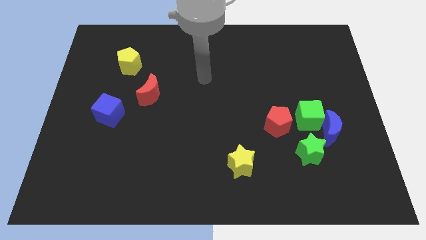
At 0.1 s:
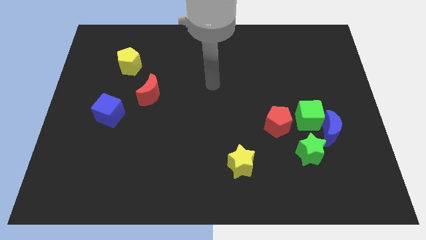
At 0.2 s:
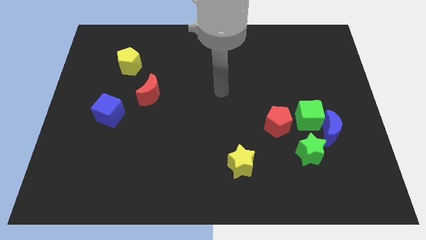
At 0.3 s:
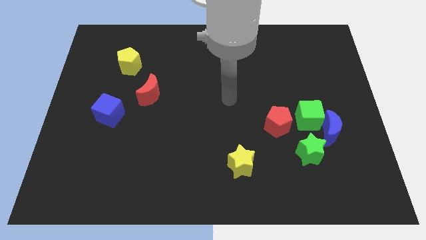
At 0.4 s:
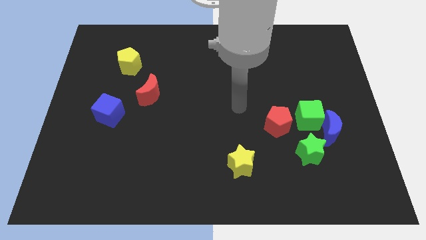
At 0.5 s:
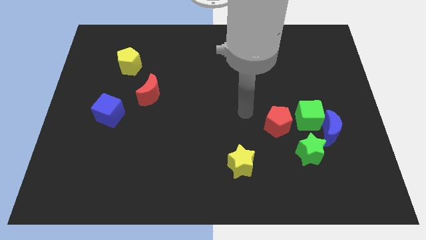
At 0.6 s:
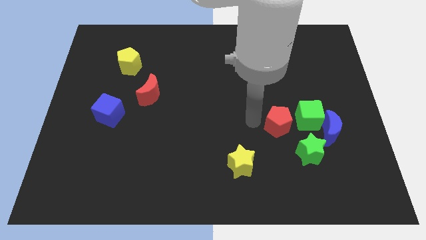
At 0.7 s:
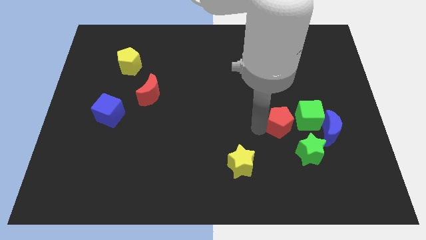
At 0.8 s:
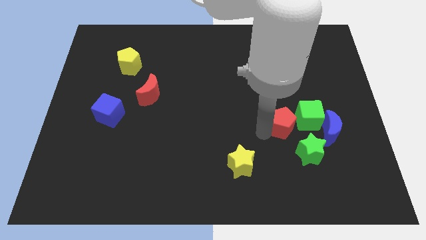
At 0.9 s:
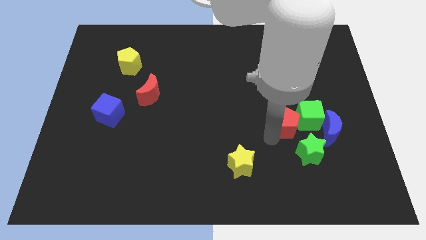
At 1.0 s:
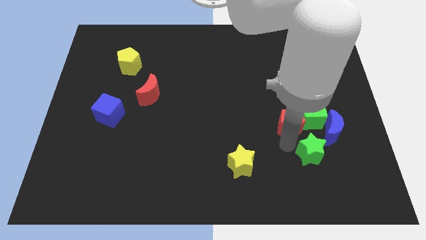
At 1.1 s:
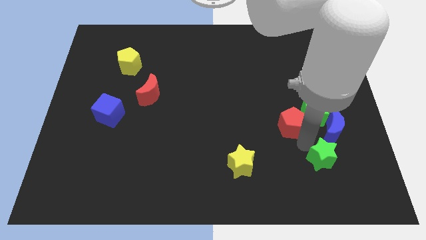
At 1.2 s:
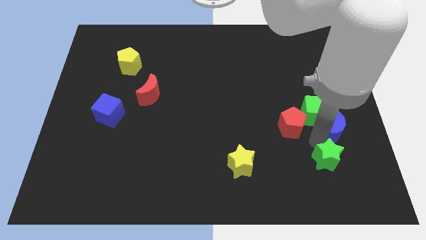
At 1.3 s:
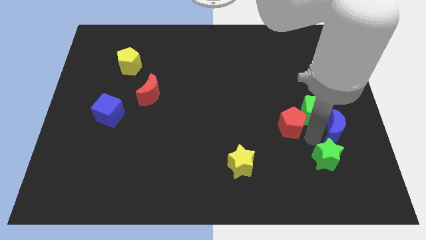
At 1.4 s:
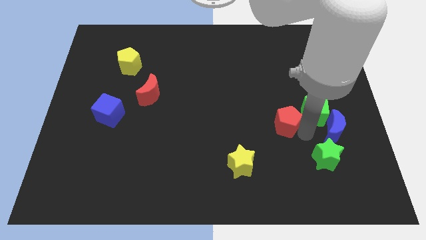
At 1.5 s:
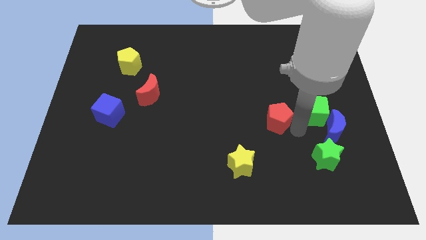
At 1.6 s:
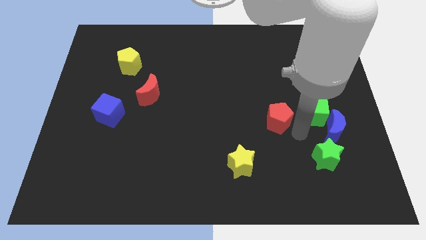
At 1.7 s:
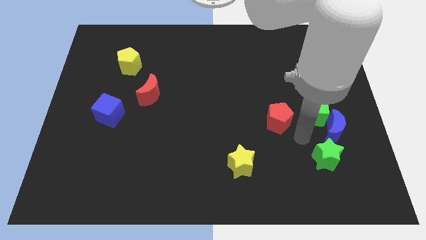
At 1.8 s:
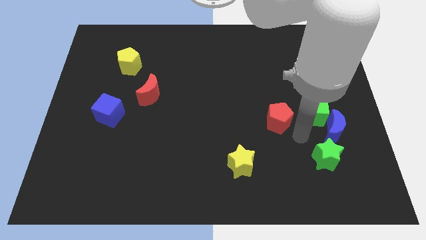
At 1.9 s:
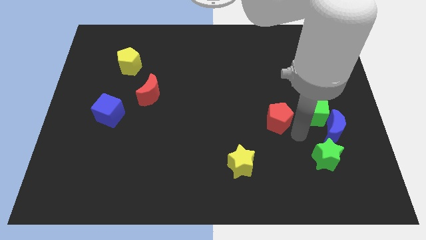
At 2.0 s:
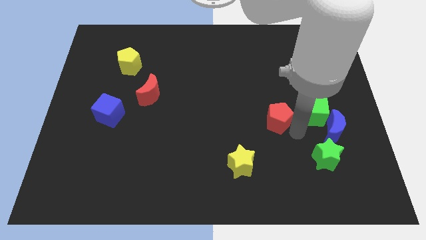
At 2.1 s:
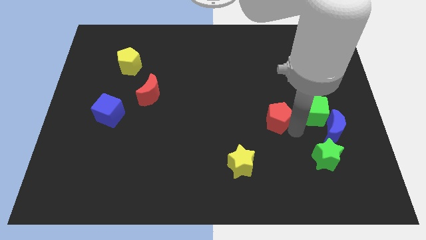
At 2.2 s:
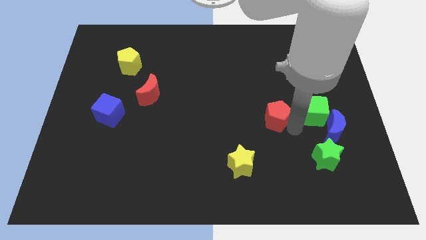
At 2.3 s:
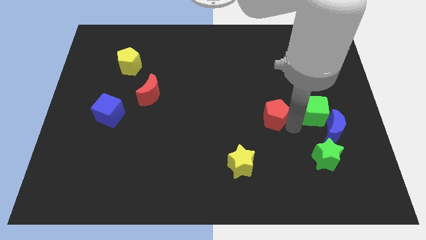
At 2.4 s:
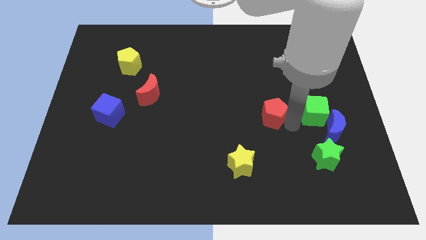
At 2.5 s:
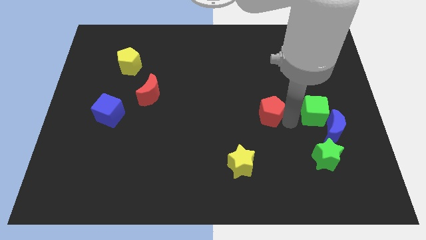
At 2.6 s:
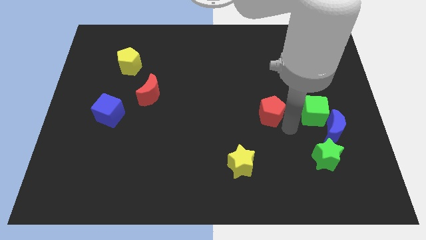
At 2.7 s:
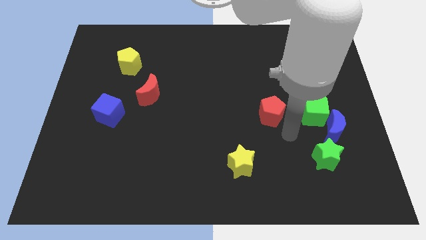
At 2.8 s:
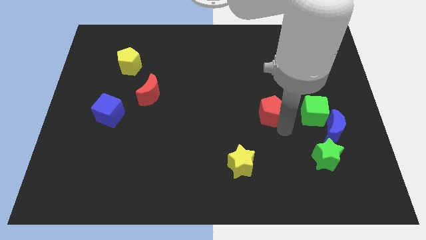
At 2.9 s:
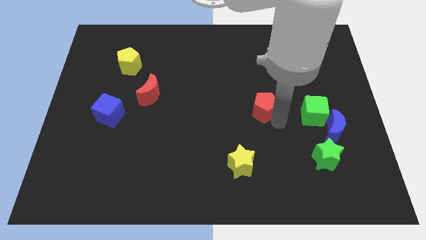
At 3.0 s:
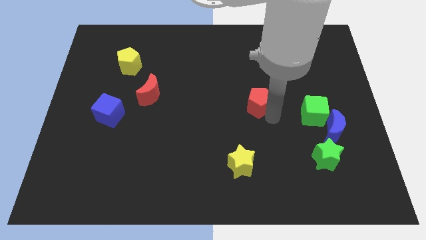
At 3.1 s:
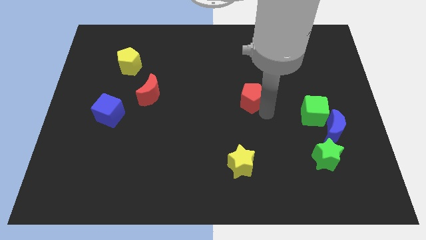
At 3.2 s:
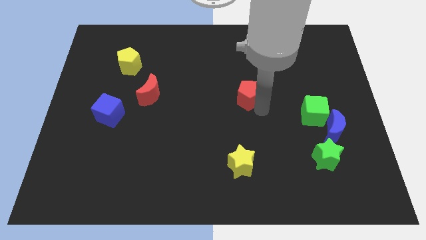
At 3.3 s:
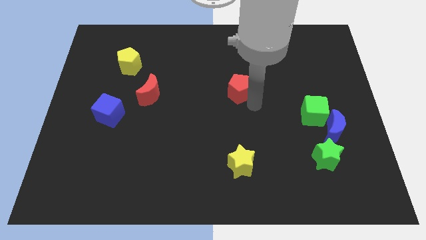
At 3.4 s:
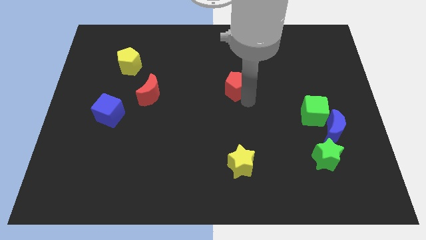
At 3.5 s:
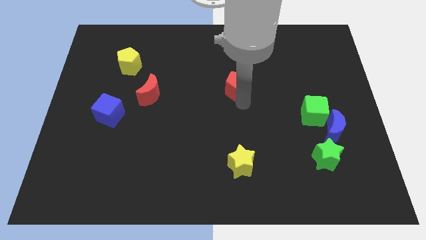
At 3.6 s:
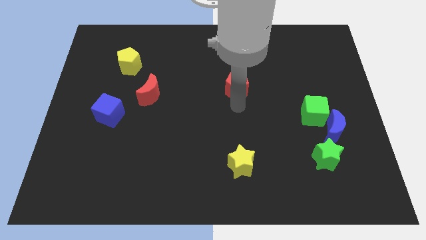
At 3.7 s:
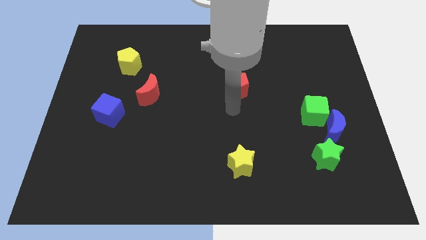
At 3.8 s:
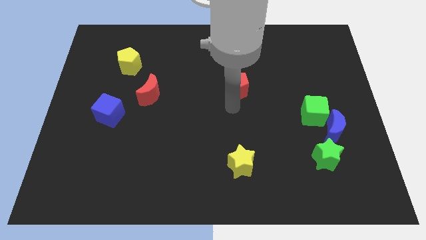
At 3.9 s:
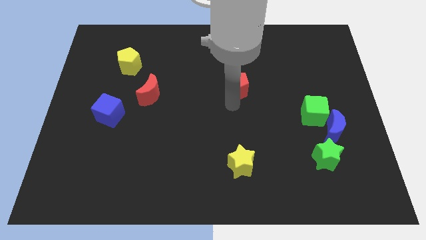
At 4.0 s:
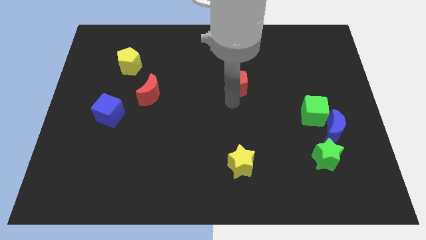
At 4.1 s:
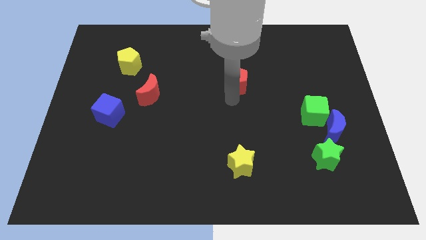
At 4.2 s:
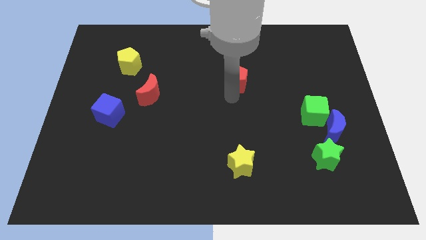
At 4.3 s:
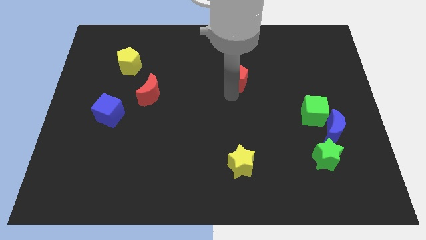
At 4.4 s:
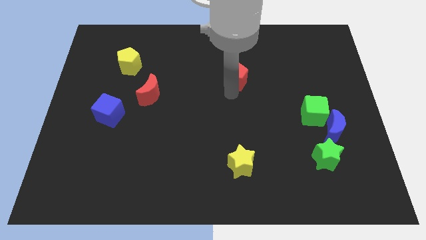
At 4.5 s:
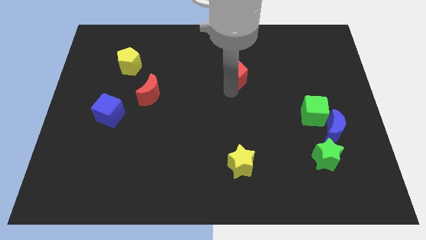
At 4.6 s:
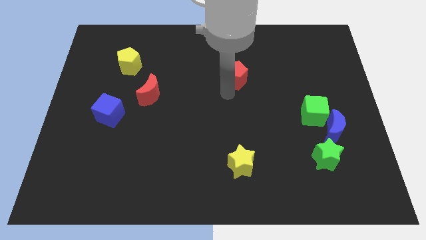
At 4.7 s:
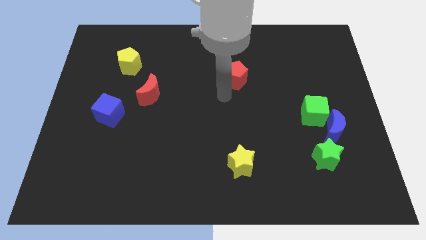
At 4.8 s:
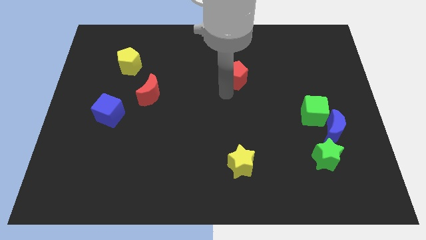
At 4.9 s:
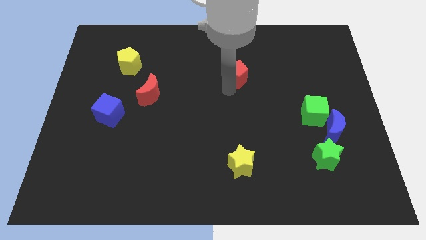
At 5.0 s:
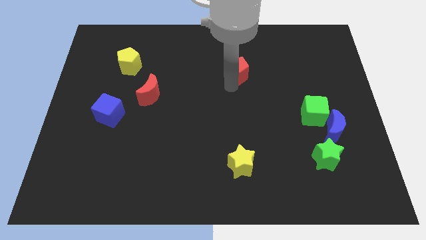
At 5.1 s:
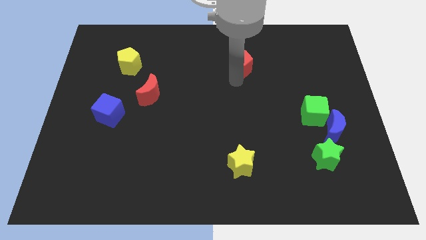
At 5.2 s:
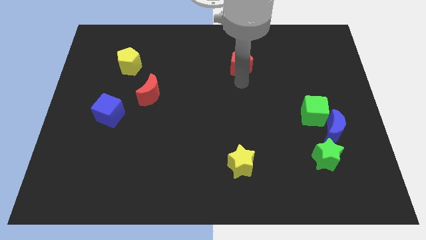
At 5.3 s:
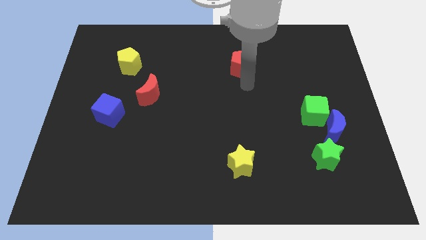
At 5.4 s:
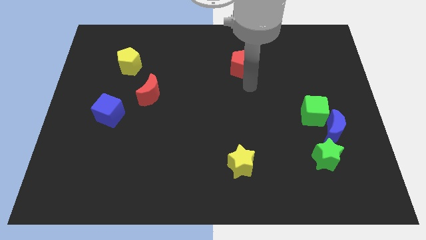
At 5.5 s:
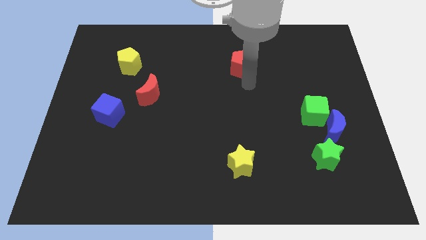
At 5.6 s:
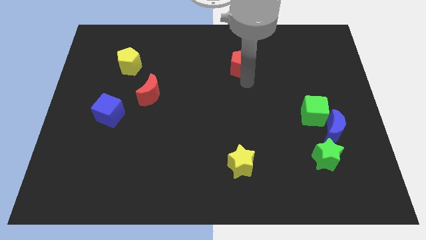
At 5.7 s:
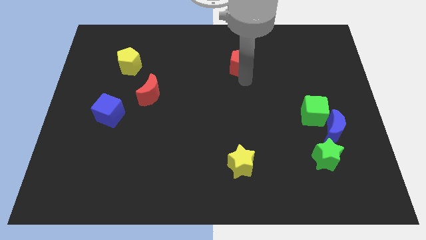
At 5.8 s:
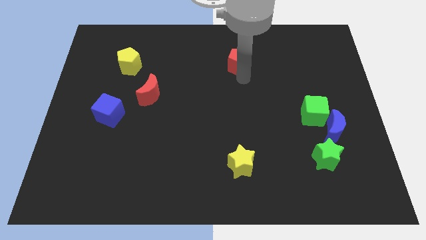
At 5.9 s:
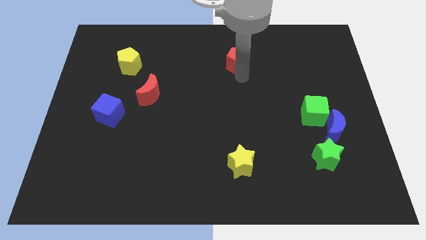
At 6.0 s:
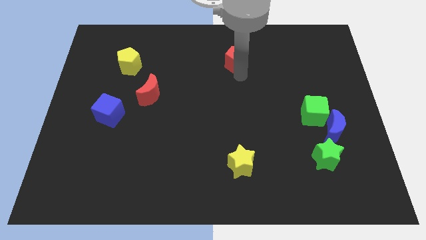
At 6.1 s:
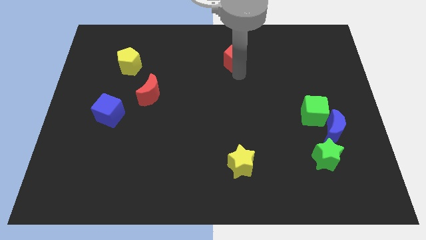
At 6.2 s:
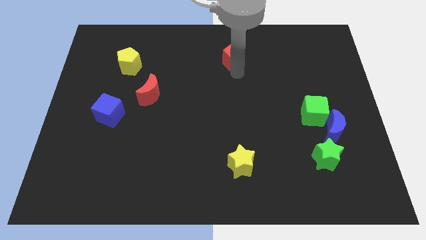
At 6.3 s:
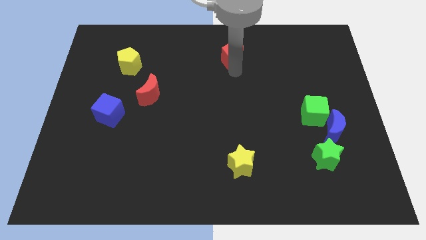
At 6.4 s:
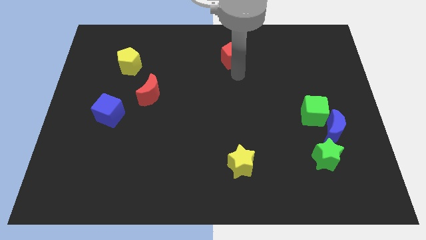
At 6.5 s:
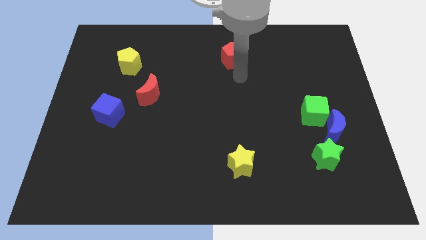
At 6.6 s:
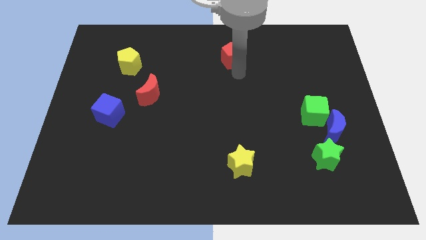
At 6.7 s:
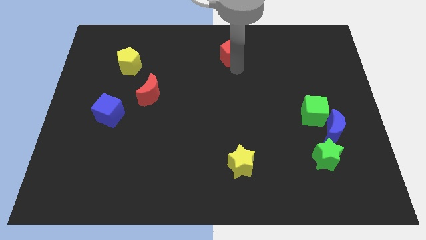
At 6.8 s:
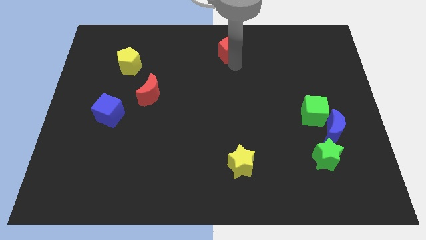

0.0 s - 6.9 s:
slide the red pentagon to the top side
